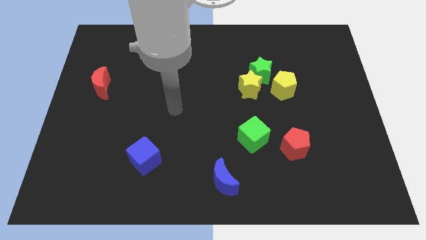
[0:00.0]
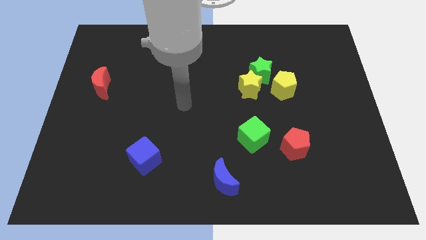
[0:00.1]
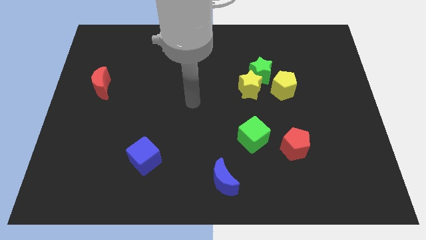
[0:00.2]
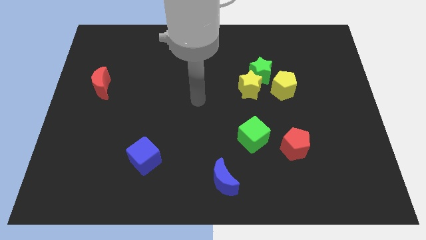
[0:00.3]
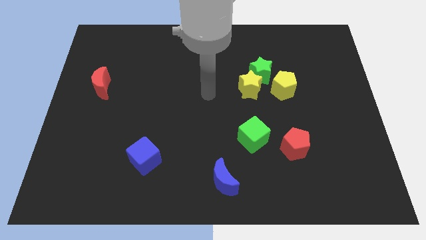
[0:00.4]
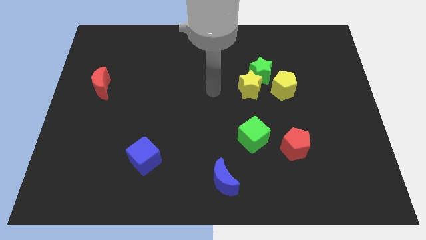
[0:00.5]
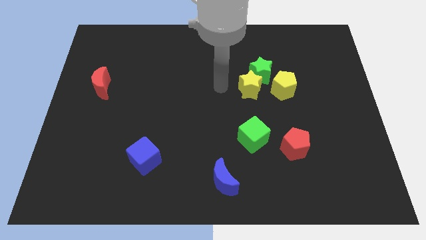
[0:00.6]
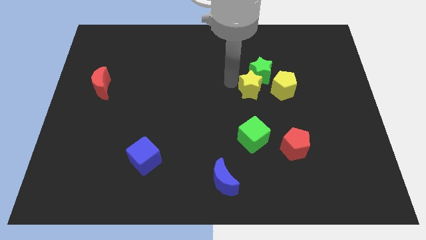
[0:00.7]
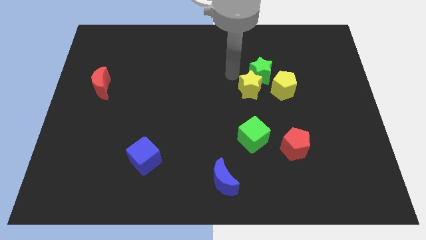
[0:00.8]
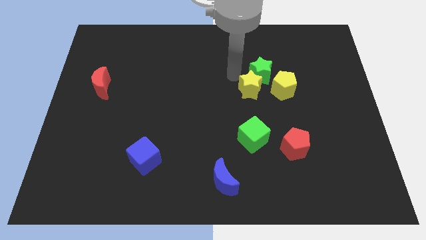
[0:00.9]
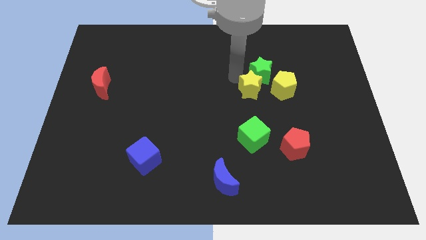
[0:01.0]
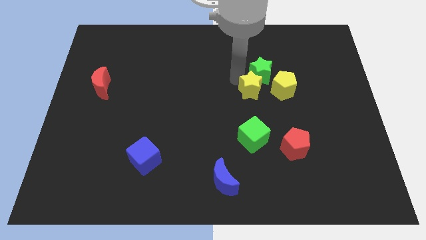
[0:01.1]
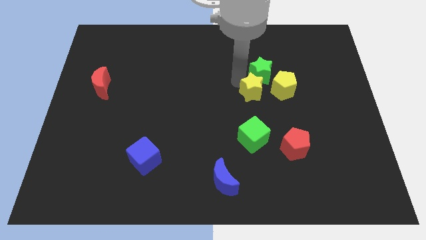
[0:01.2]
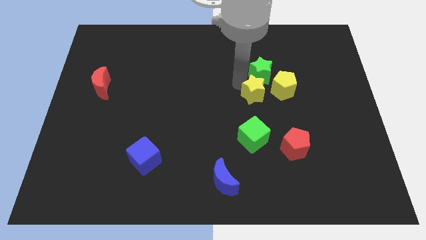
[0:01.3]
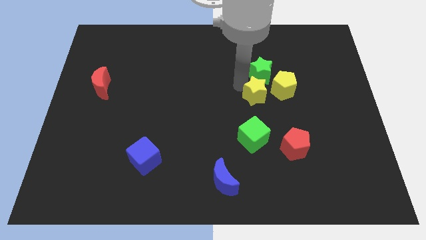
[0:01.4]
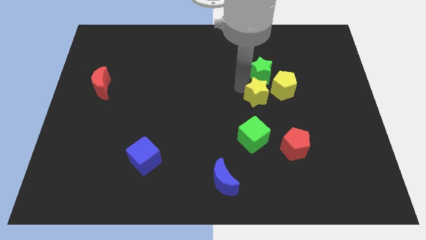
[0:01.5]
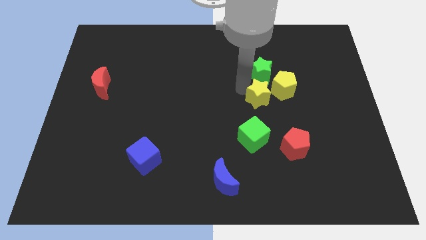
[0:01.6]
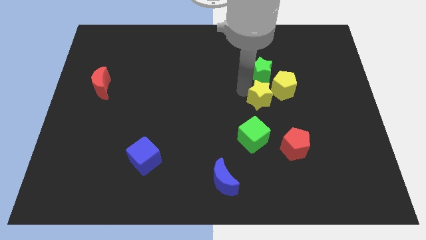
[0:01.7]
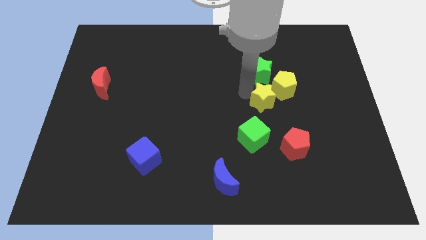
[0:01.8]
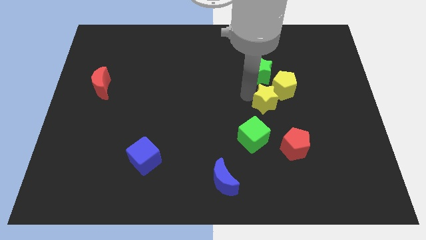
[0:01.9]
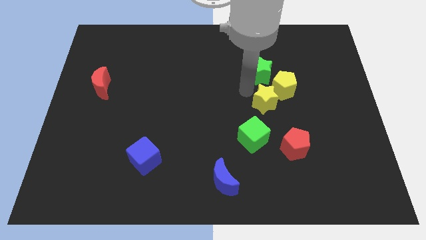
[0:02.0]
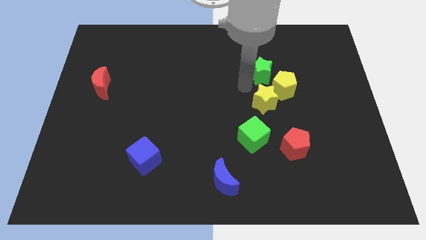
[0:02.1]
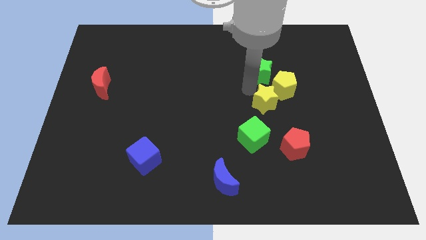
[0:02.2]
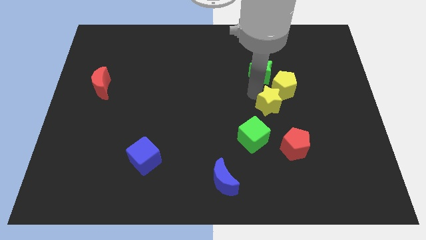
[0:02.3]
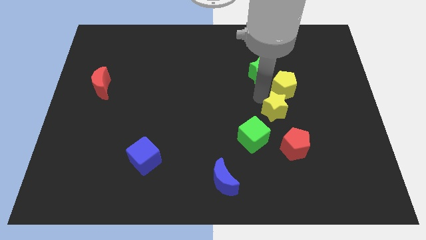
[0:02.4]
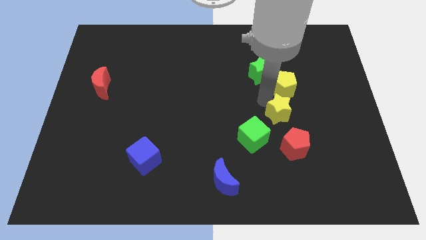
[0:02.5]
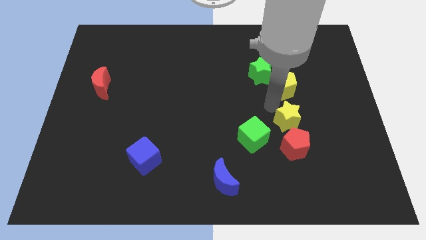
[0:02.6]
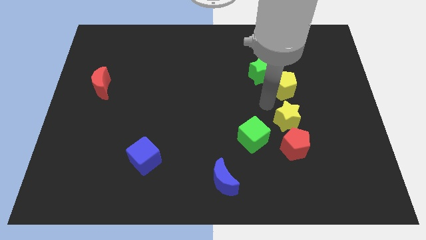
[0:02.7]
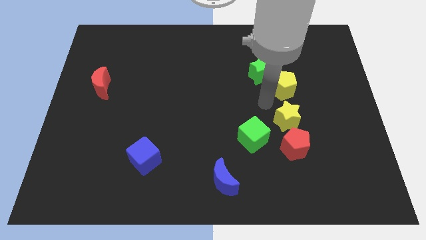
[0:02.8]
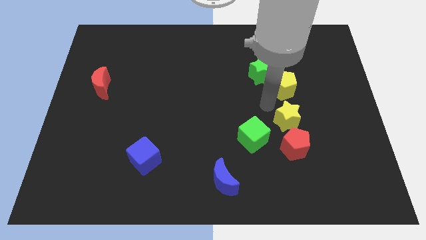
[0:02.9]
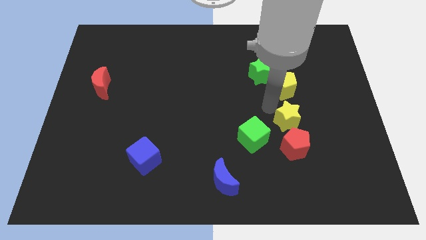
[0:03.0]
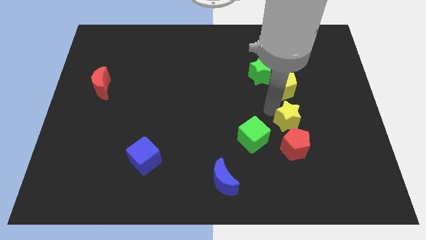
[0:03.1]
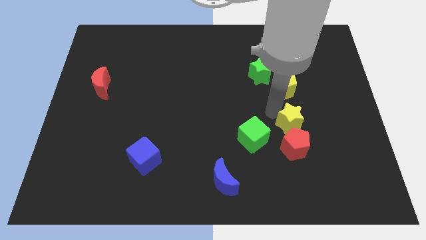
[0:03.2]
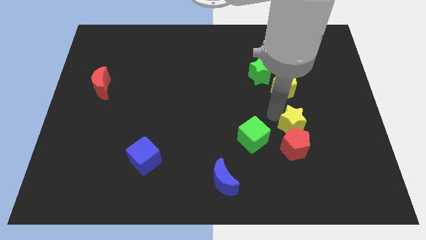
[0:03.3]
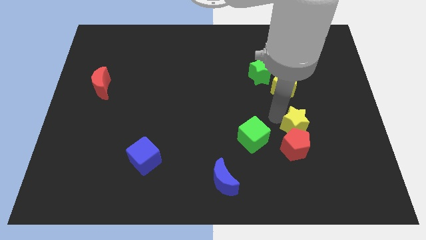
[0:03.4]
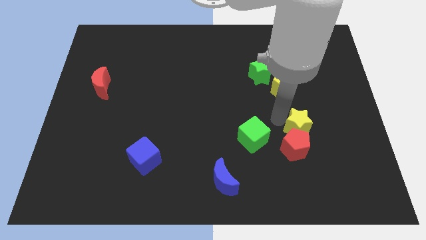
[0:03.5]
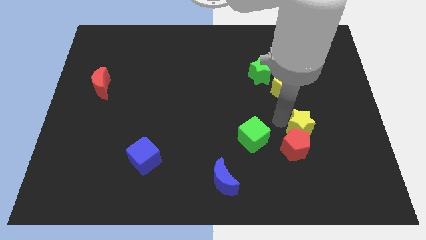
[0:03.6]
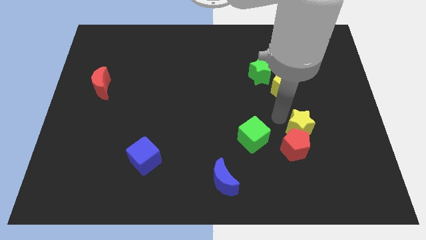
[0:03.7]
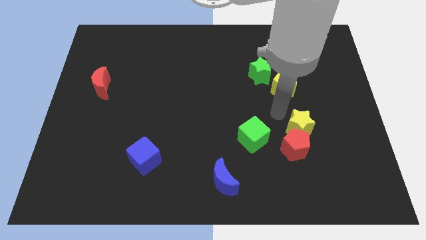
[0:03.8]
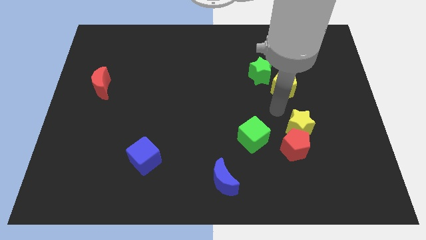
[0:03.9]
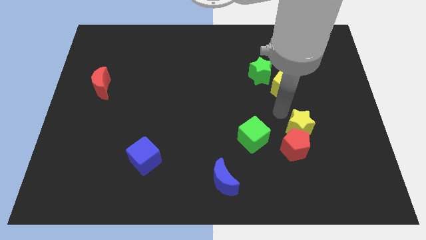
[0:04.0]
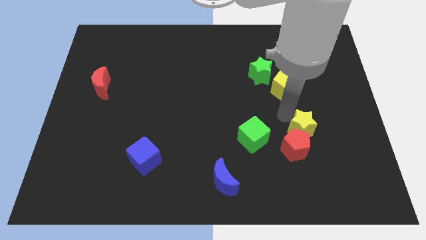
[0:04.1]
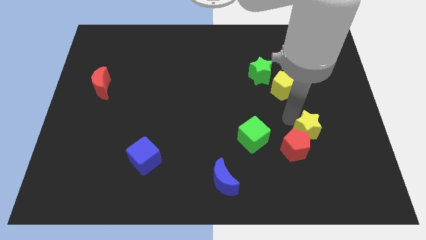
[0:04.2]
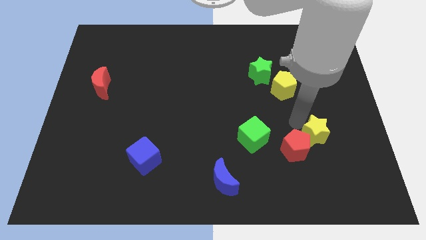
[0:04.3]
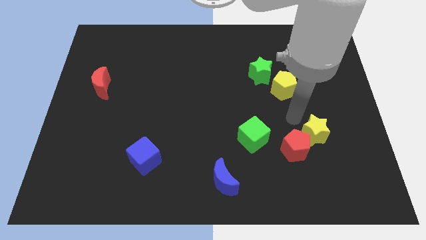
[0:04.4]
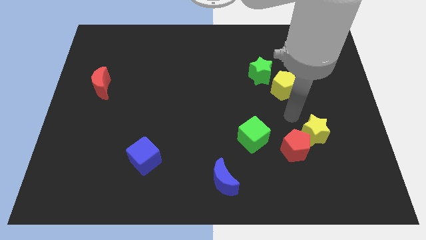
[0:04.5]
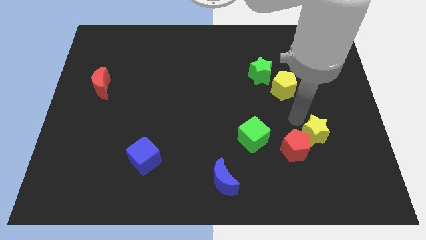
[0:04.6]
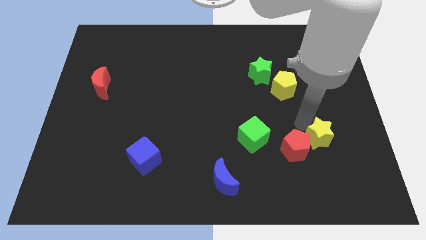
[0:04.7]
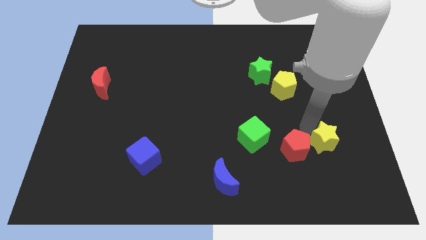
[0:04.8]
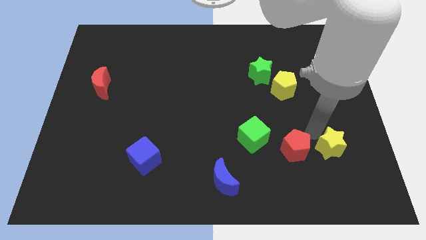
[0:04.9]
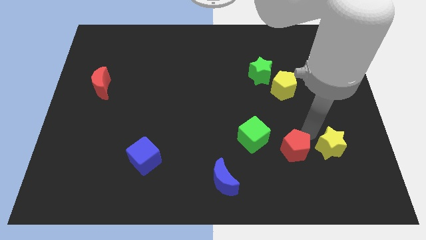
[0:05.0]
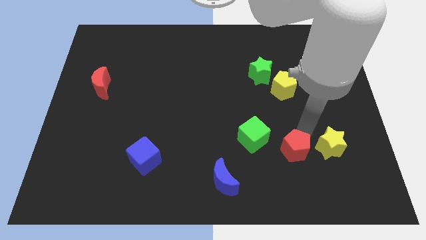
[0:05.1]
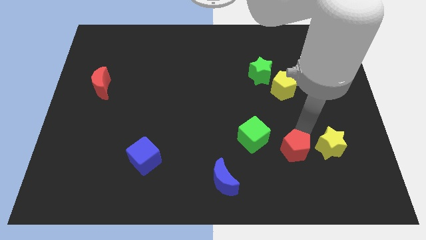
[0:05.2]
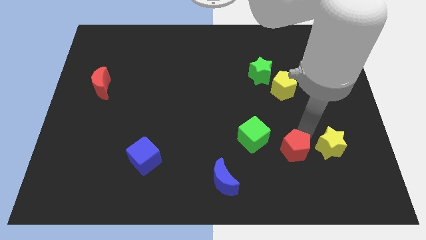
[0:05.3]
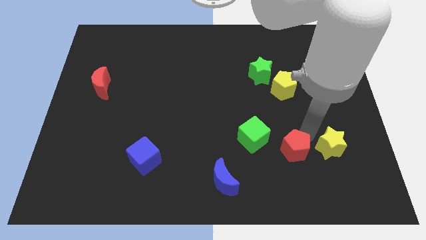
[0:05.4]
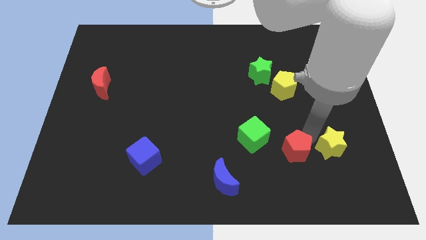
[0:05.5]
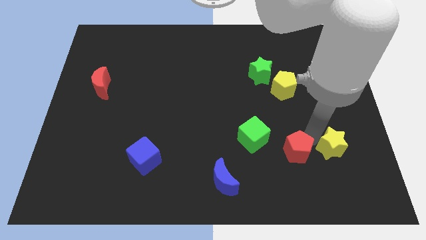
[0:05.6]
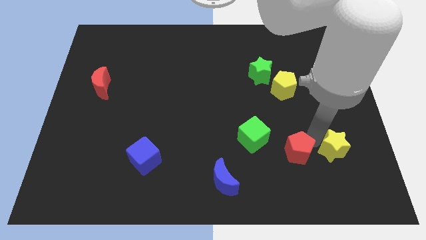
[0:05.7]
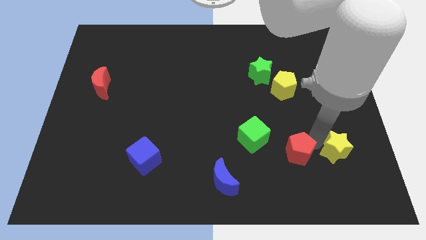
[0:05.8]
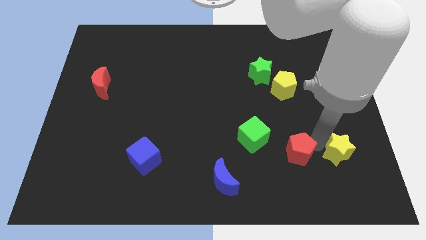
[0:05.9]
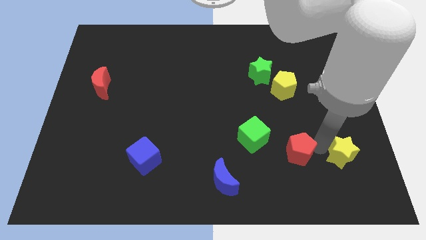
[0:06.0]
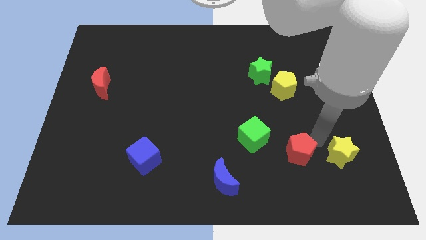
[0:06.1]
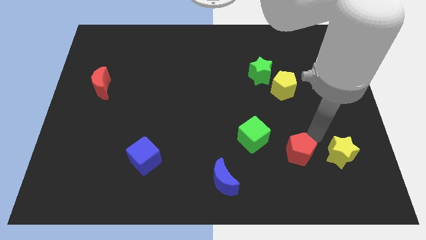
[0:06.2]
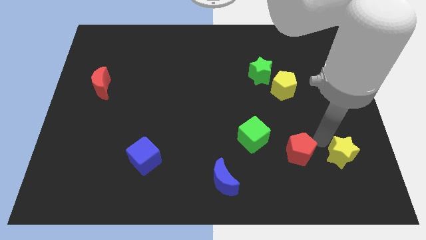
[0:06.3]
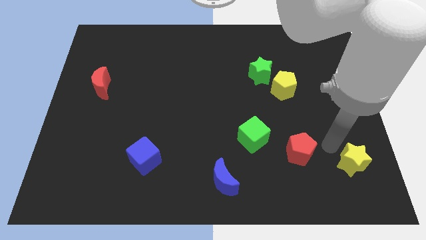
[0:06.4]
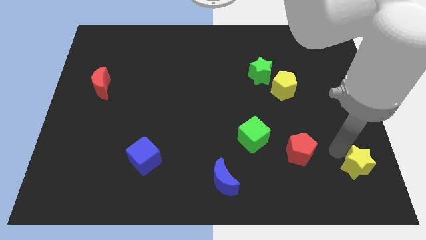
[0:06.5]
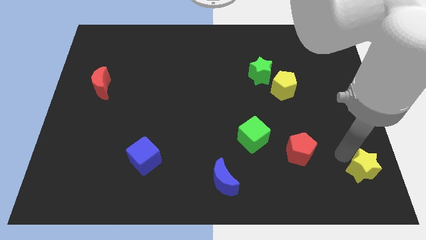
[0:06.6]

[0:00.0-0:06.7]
move the yellow star to the lower right corner
